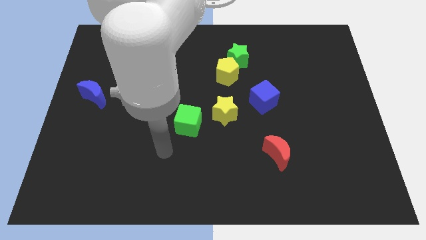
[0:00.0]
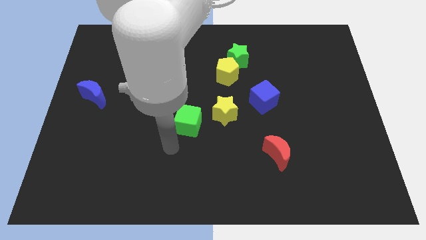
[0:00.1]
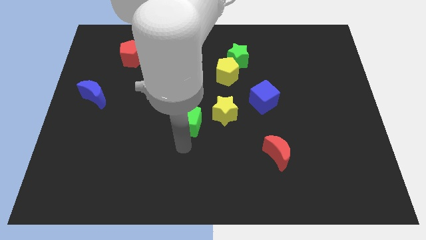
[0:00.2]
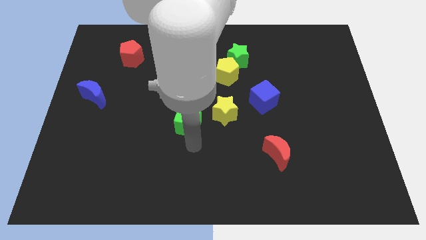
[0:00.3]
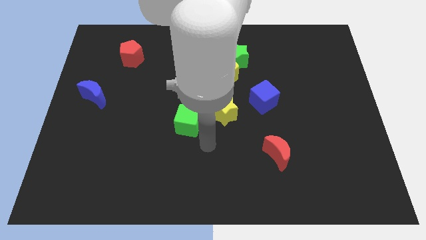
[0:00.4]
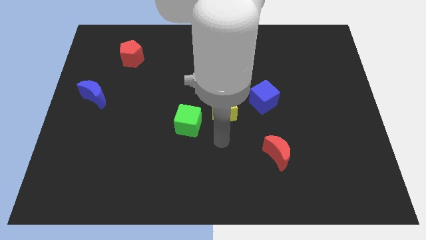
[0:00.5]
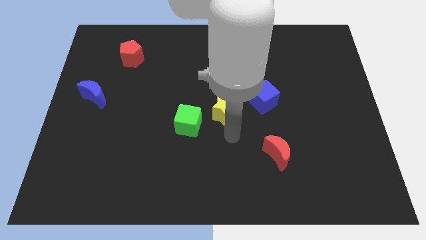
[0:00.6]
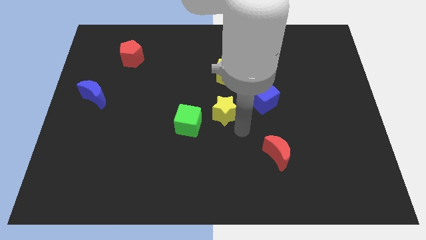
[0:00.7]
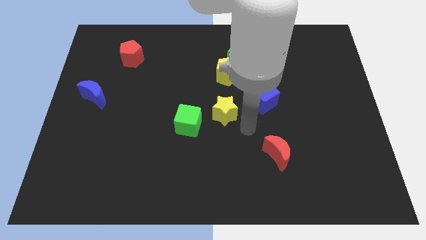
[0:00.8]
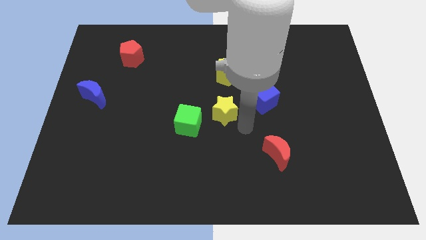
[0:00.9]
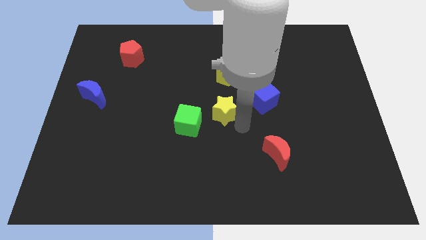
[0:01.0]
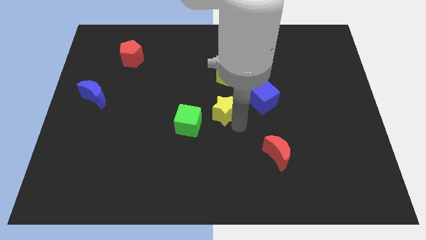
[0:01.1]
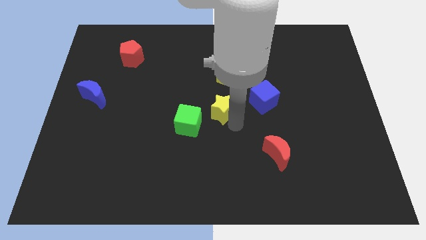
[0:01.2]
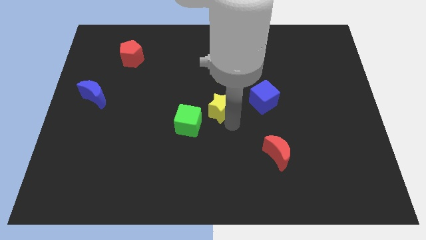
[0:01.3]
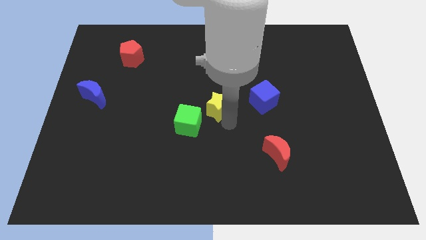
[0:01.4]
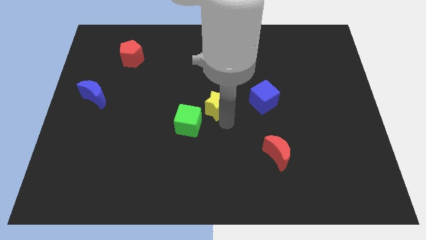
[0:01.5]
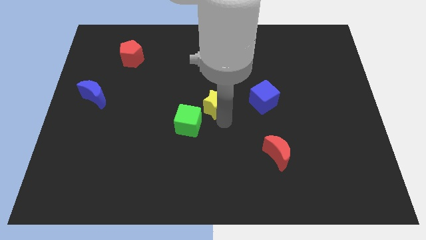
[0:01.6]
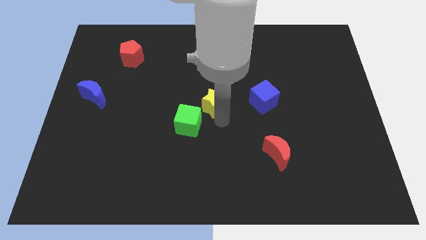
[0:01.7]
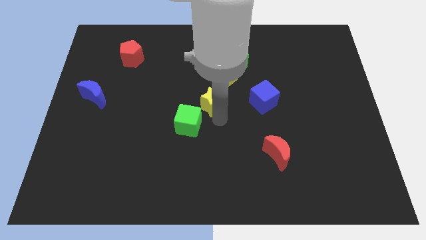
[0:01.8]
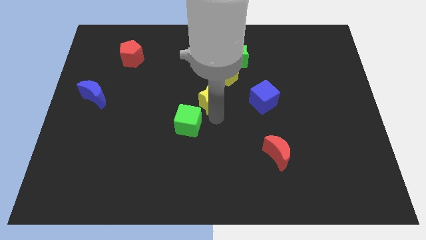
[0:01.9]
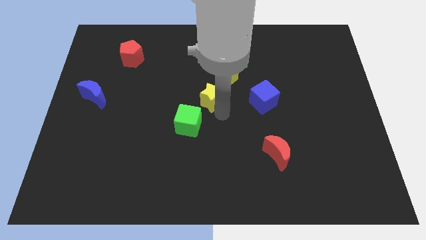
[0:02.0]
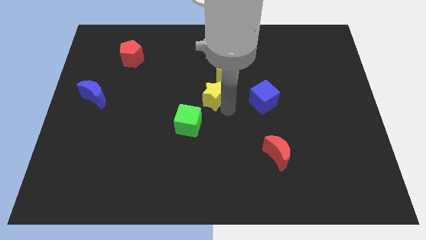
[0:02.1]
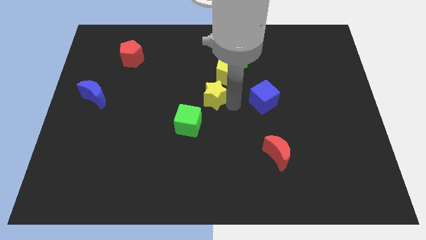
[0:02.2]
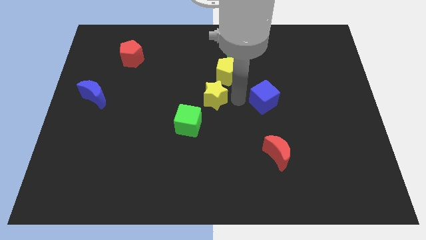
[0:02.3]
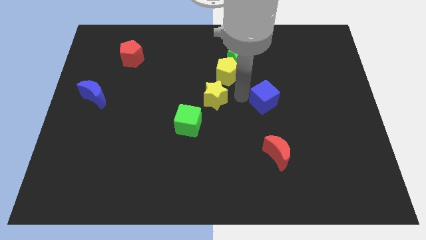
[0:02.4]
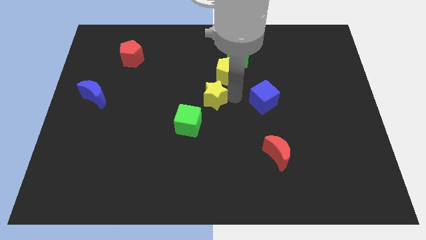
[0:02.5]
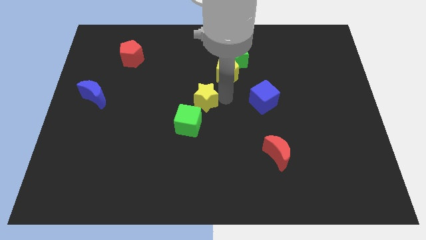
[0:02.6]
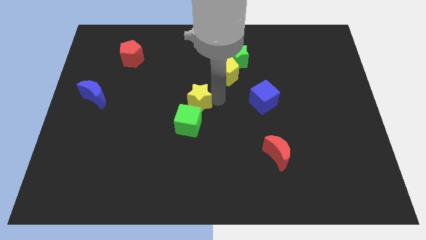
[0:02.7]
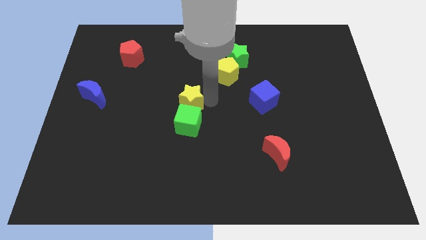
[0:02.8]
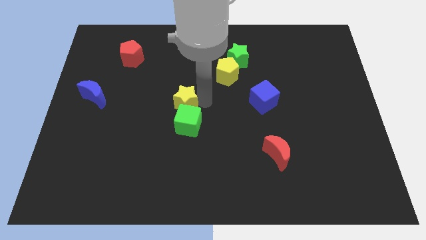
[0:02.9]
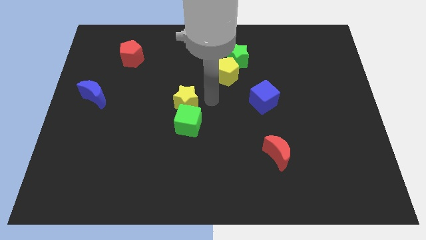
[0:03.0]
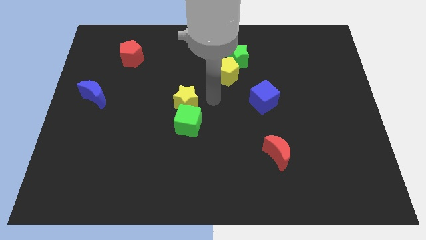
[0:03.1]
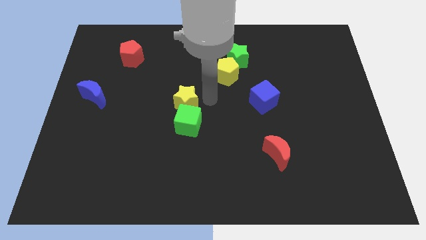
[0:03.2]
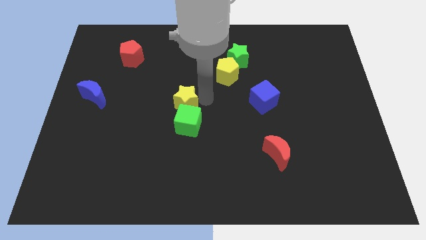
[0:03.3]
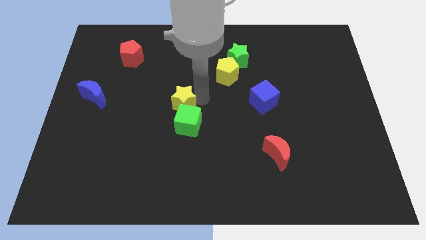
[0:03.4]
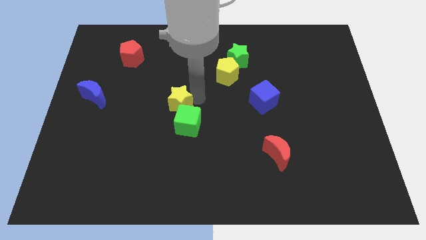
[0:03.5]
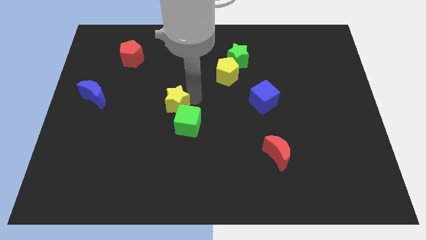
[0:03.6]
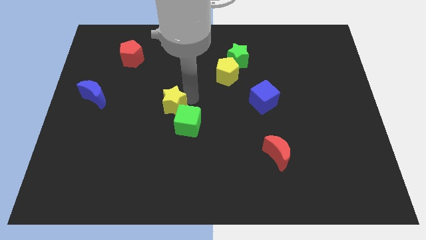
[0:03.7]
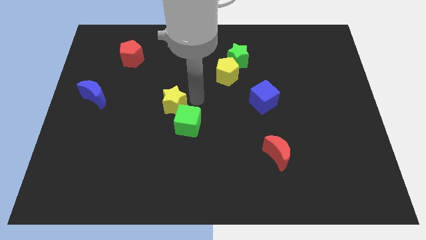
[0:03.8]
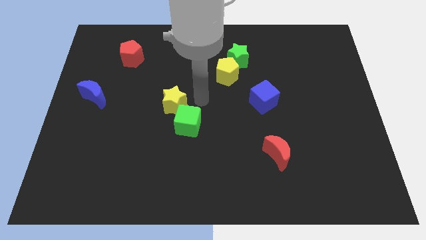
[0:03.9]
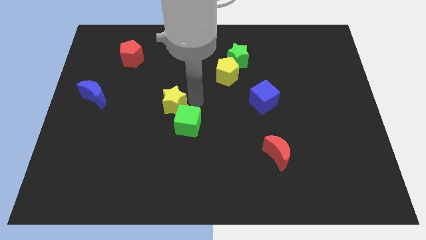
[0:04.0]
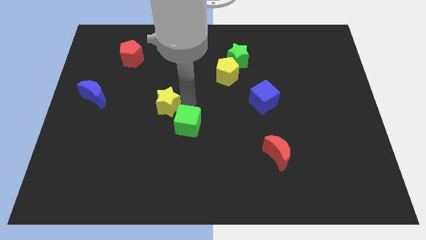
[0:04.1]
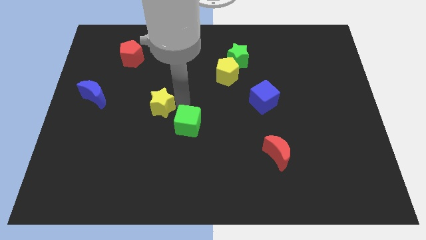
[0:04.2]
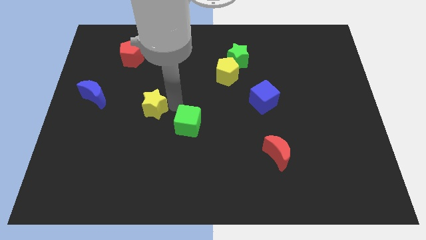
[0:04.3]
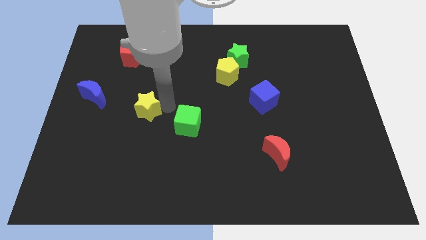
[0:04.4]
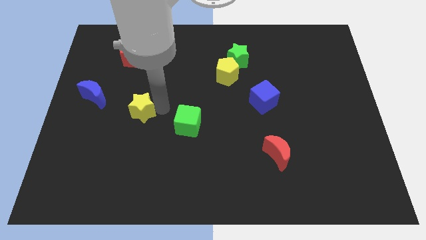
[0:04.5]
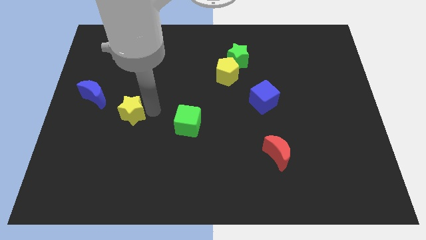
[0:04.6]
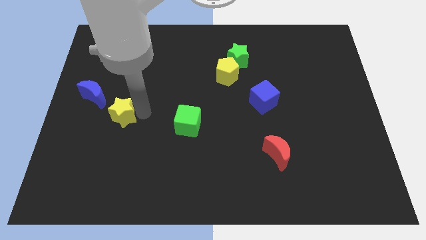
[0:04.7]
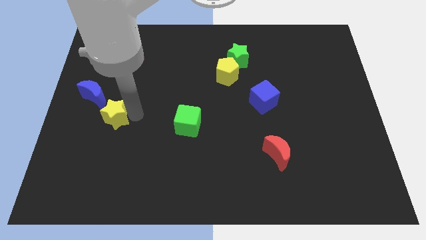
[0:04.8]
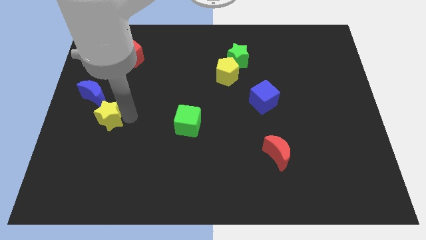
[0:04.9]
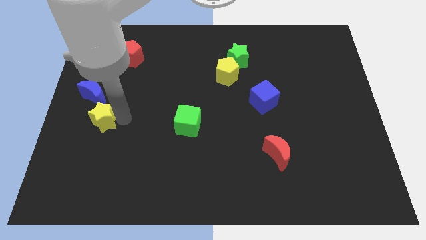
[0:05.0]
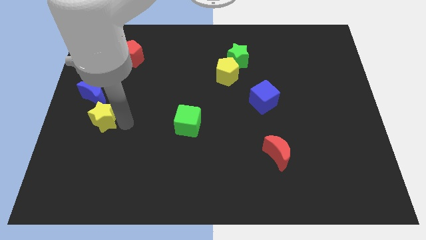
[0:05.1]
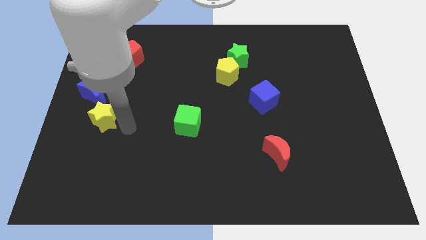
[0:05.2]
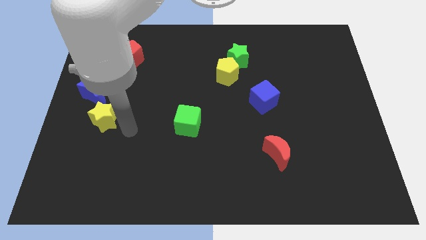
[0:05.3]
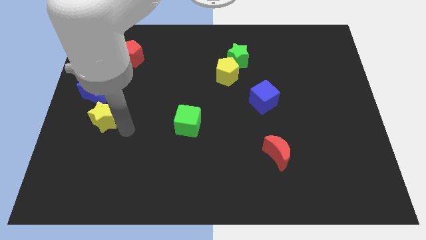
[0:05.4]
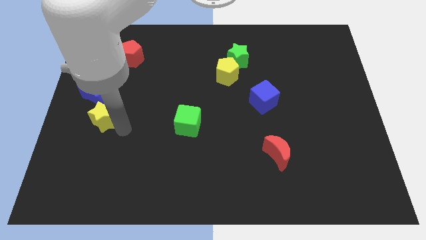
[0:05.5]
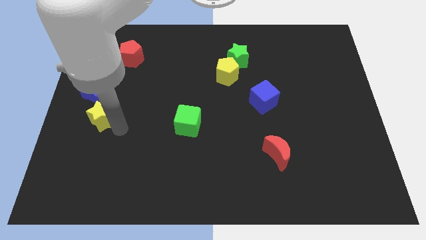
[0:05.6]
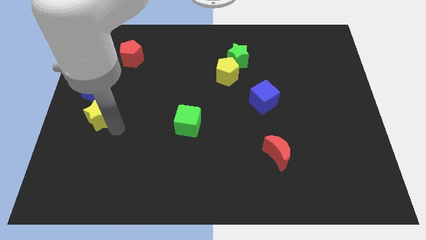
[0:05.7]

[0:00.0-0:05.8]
move the yellow star to the center left

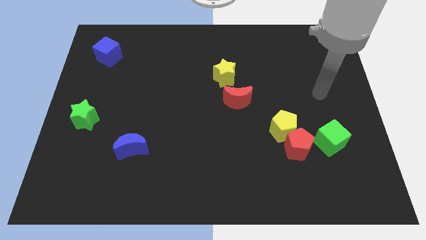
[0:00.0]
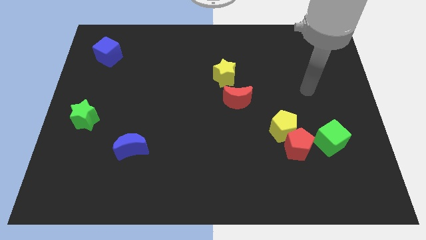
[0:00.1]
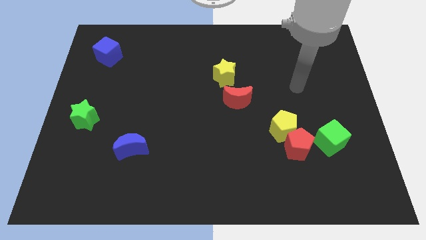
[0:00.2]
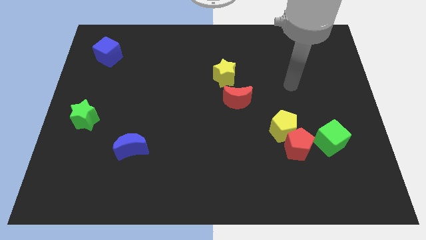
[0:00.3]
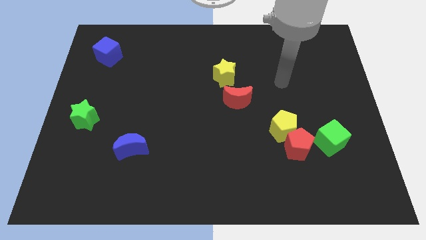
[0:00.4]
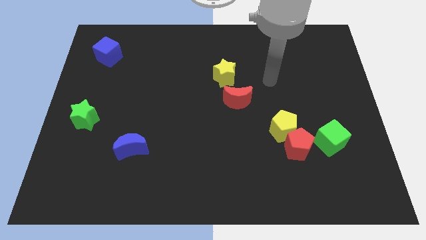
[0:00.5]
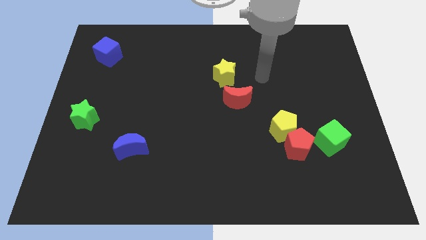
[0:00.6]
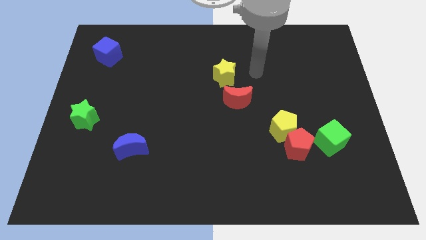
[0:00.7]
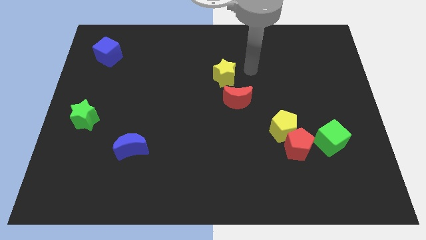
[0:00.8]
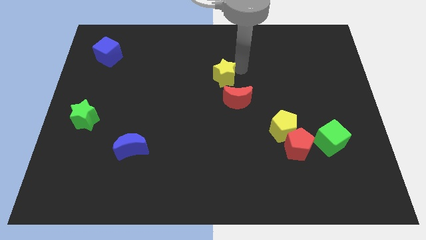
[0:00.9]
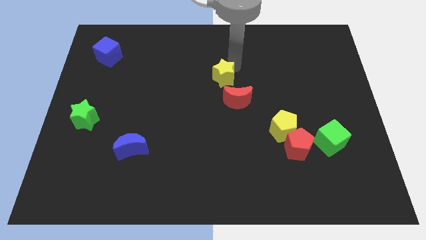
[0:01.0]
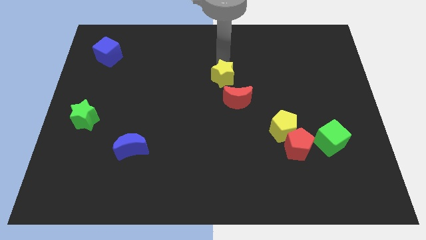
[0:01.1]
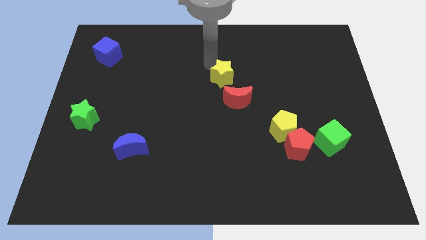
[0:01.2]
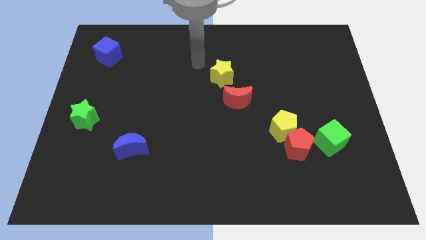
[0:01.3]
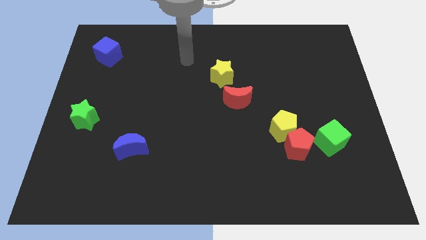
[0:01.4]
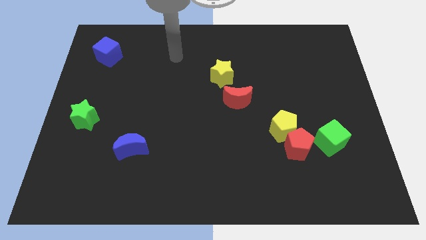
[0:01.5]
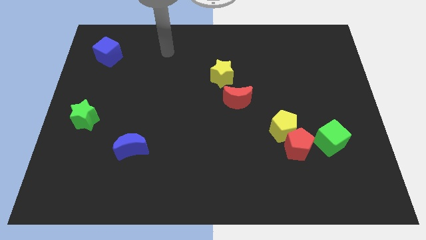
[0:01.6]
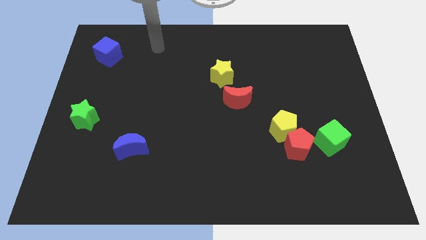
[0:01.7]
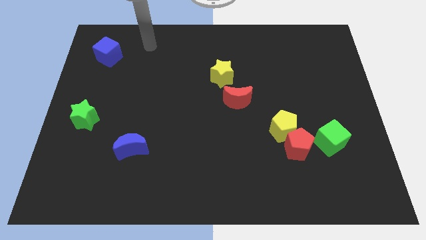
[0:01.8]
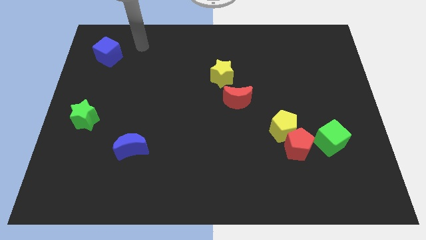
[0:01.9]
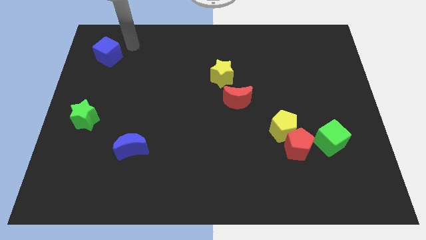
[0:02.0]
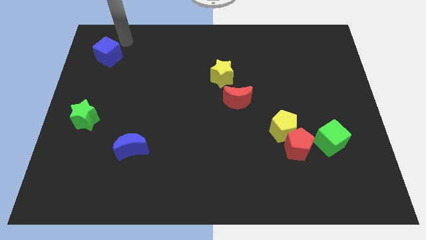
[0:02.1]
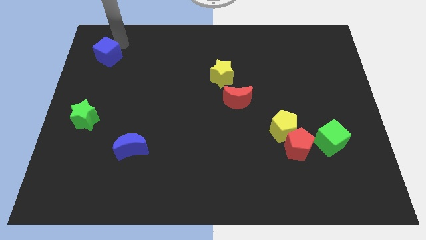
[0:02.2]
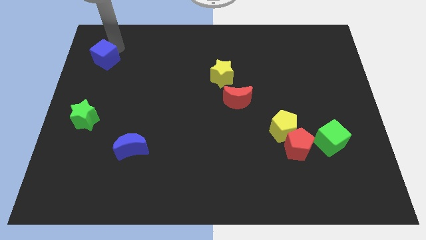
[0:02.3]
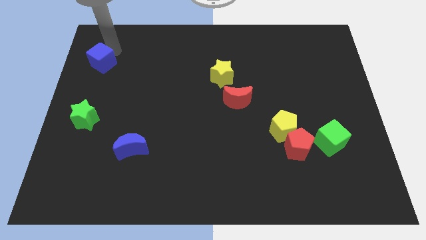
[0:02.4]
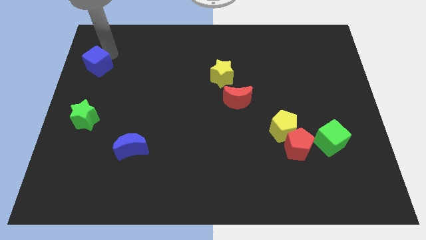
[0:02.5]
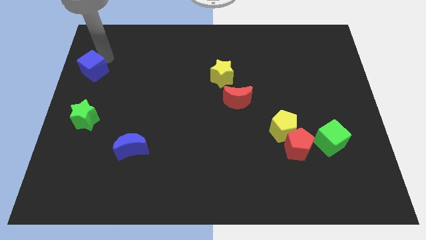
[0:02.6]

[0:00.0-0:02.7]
push the blue cube to the left side of the board
